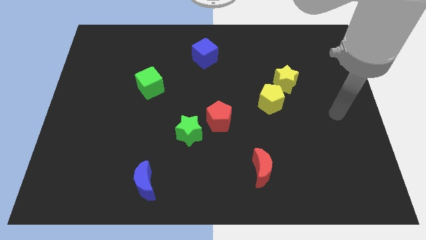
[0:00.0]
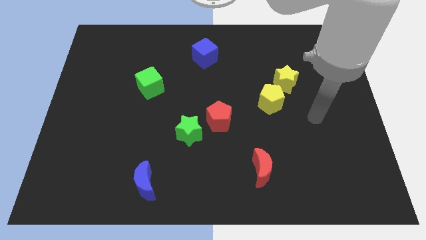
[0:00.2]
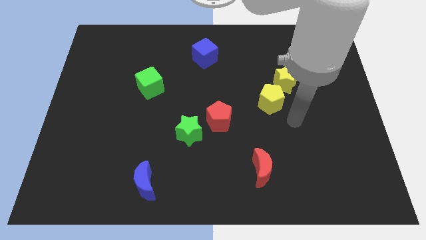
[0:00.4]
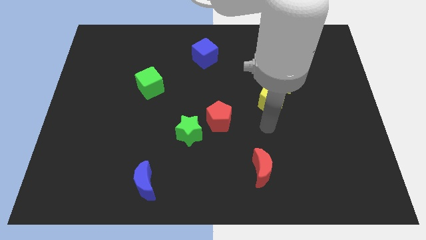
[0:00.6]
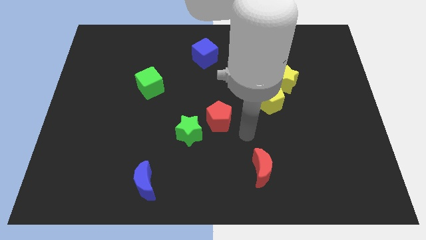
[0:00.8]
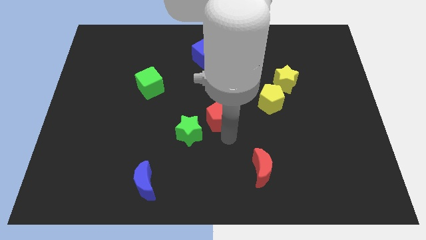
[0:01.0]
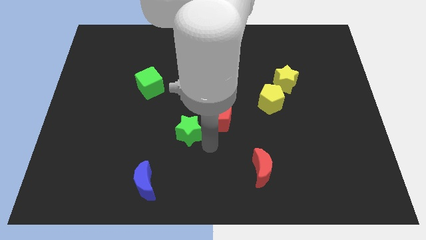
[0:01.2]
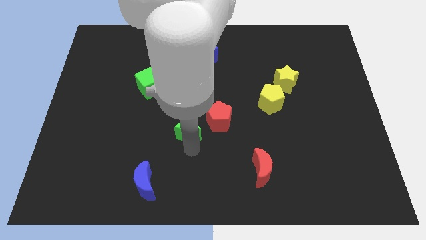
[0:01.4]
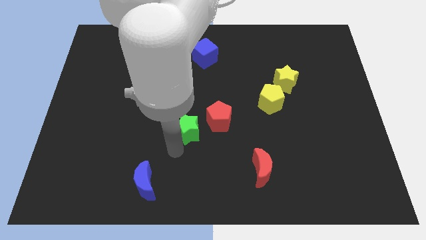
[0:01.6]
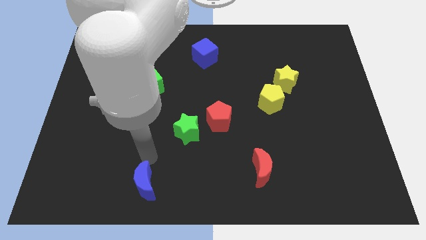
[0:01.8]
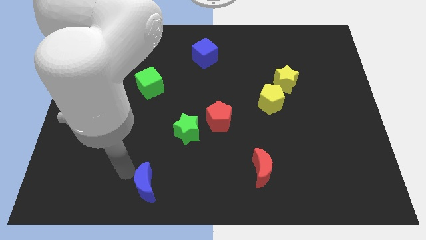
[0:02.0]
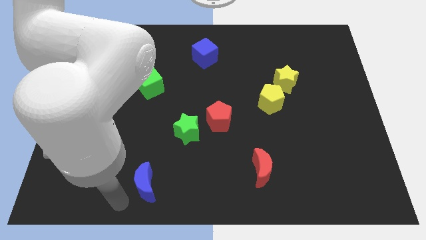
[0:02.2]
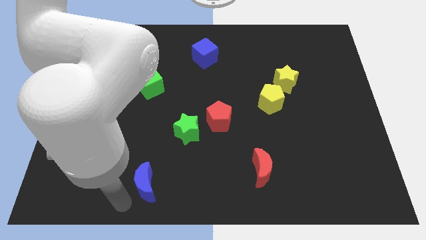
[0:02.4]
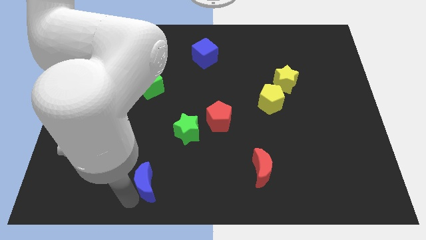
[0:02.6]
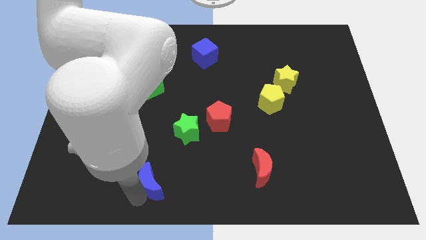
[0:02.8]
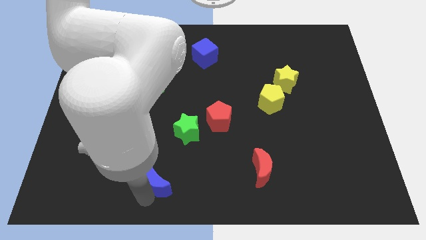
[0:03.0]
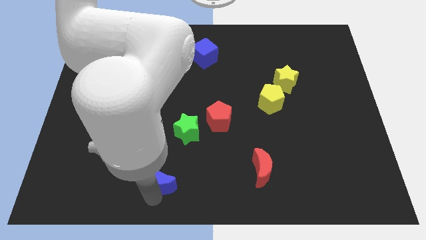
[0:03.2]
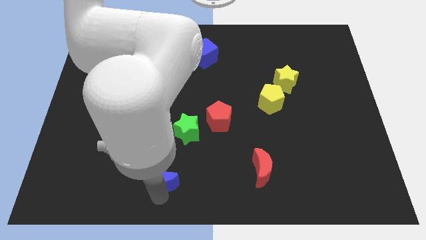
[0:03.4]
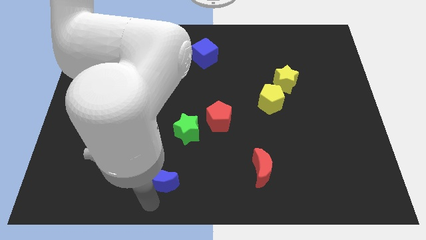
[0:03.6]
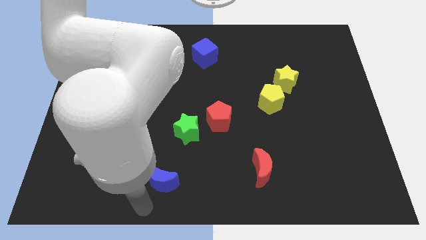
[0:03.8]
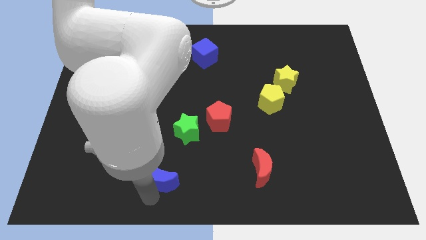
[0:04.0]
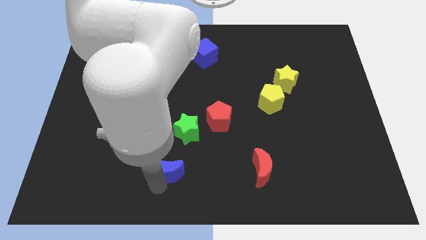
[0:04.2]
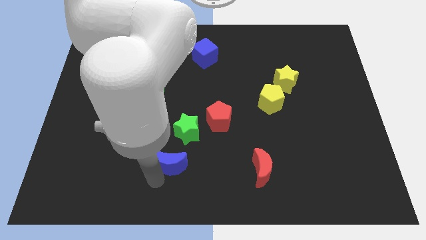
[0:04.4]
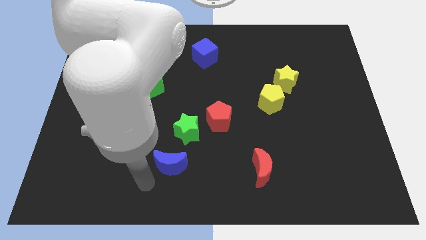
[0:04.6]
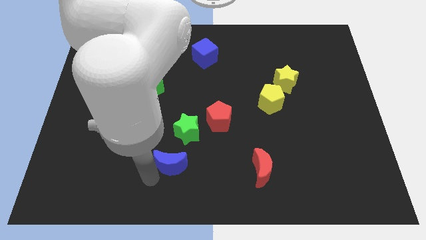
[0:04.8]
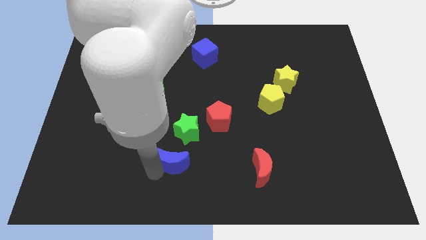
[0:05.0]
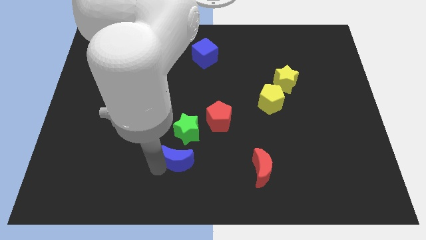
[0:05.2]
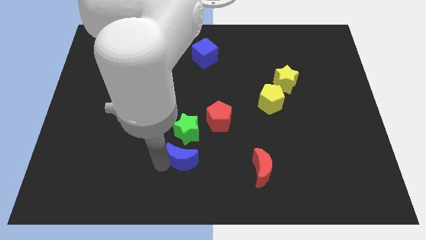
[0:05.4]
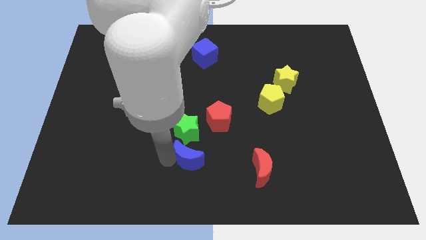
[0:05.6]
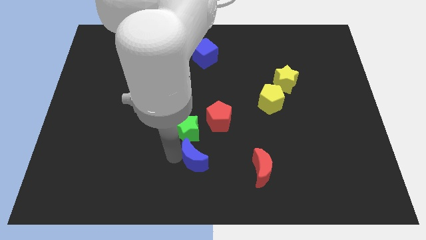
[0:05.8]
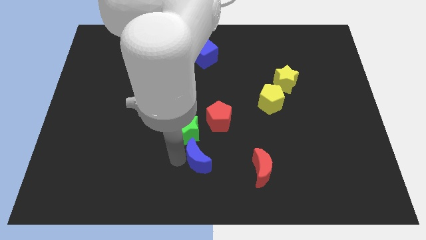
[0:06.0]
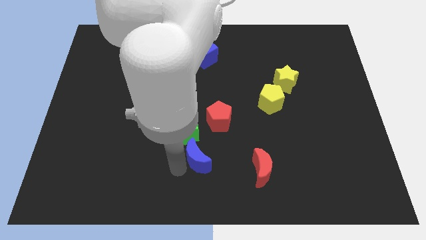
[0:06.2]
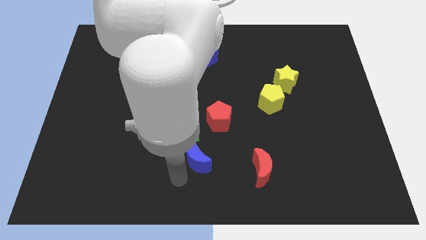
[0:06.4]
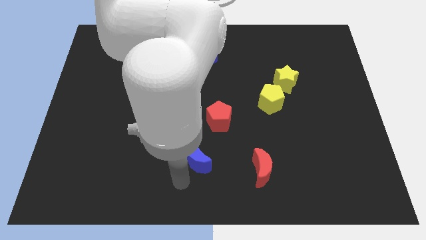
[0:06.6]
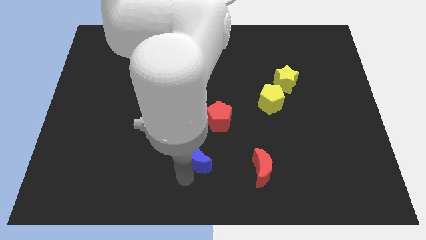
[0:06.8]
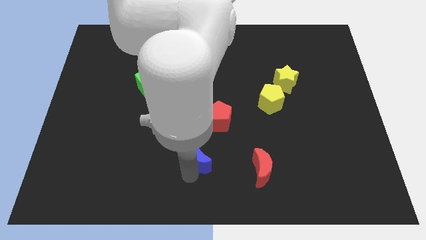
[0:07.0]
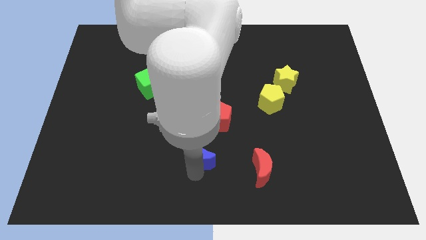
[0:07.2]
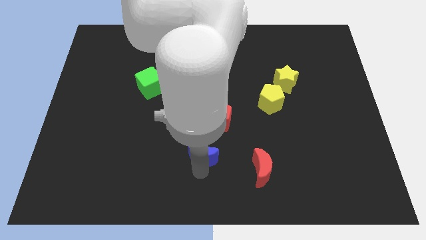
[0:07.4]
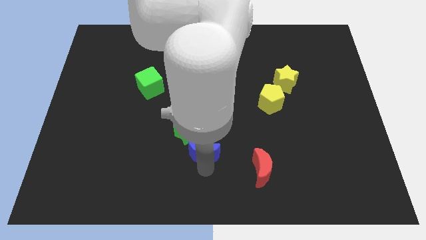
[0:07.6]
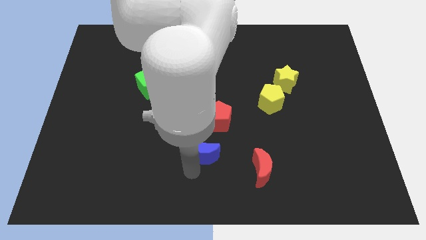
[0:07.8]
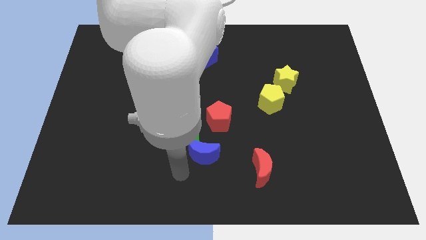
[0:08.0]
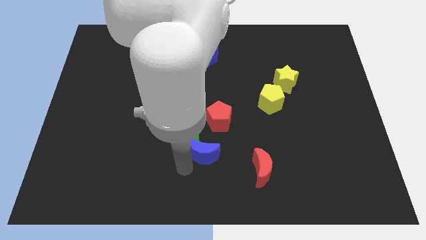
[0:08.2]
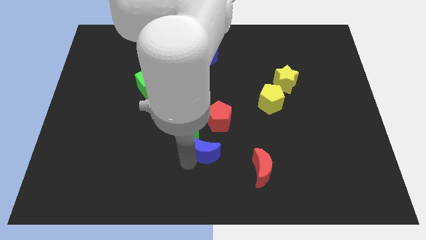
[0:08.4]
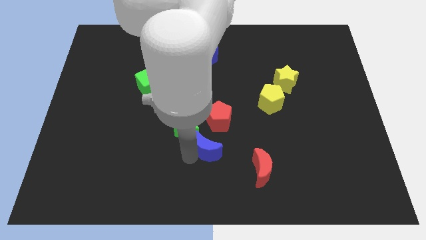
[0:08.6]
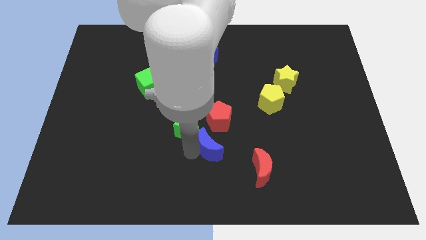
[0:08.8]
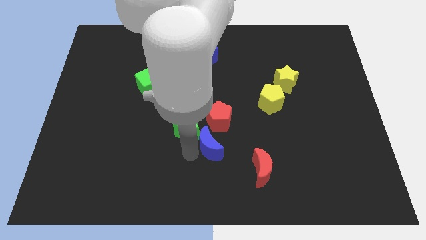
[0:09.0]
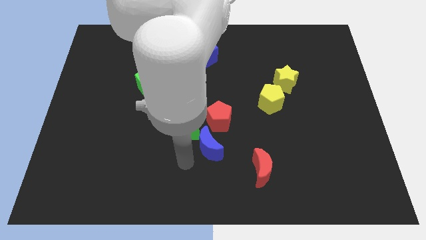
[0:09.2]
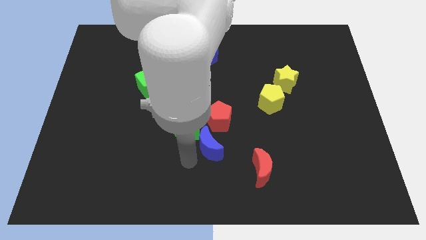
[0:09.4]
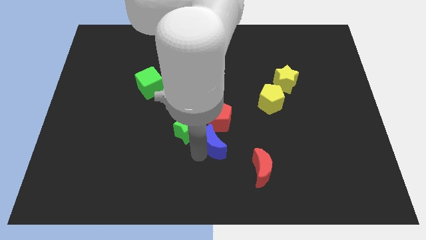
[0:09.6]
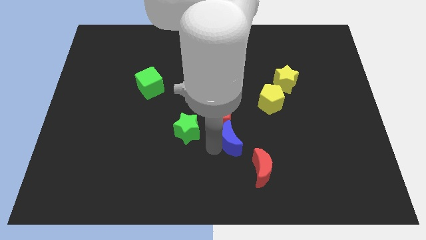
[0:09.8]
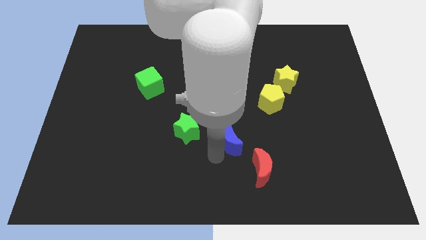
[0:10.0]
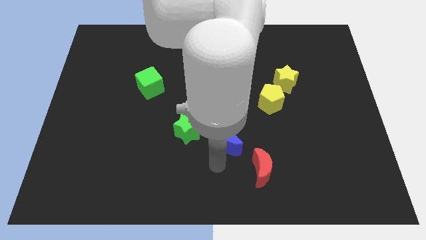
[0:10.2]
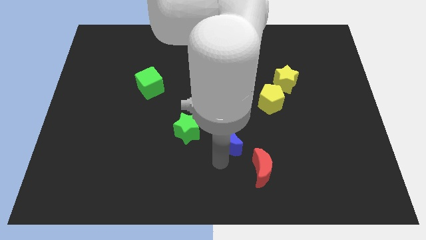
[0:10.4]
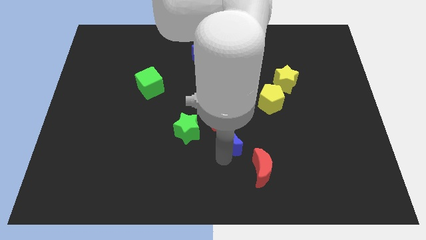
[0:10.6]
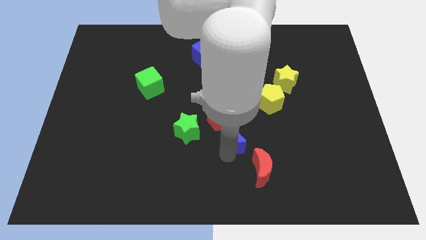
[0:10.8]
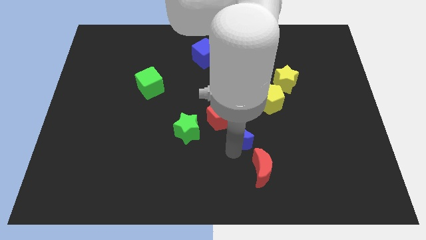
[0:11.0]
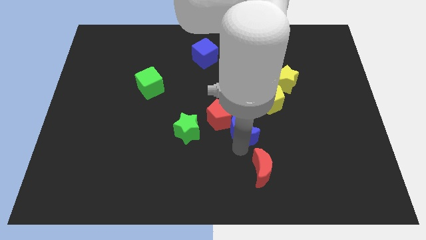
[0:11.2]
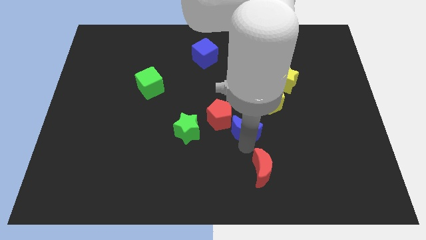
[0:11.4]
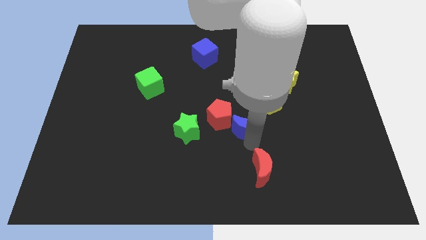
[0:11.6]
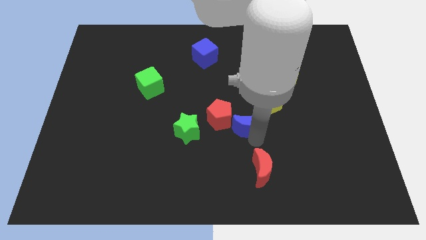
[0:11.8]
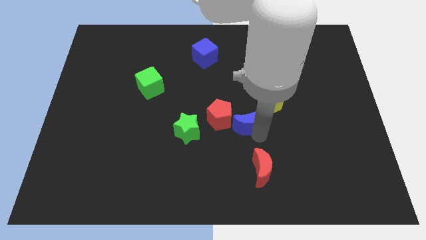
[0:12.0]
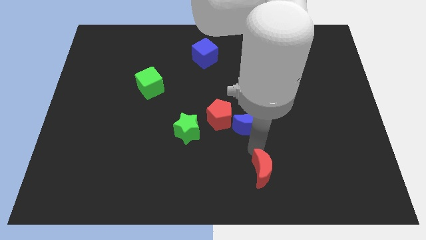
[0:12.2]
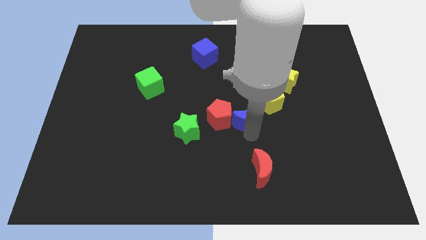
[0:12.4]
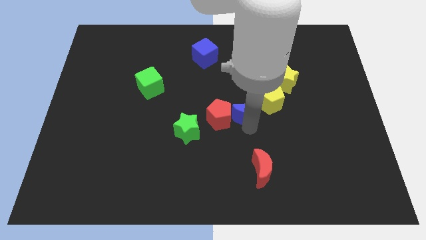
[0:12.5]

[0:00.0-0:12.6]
slide the blue moon diagonally up and to the right of the red pentagon

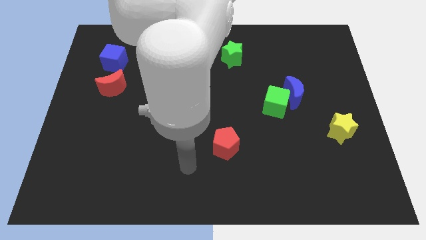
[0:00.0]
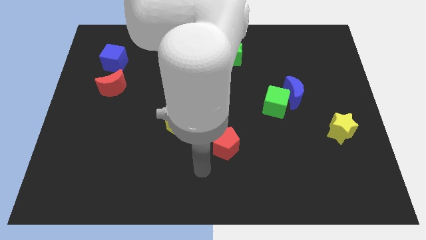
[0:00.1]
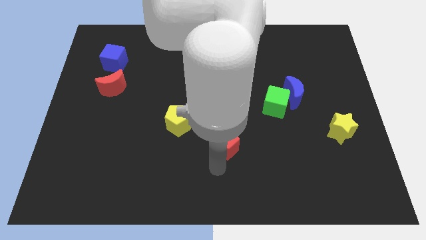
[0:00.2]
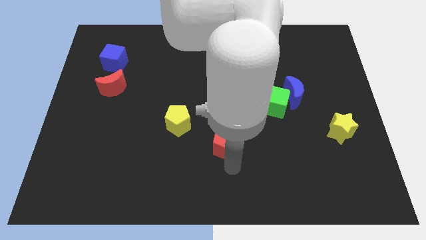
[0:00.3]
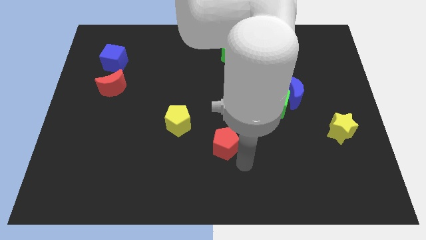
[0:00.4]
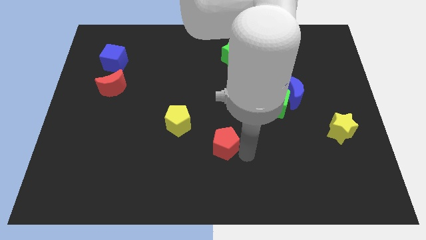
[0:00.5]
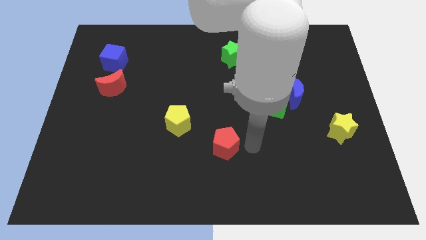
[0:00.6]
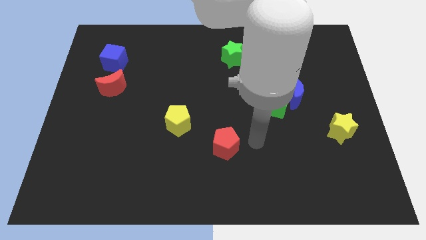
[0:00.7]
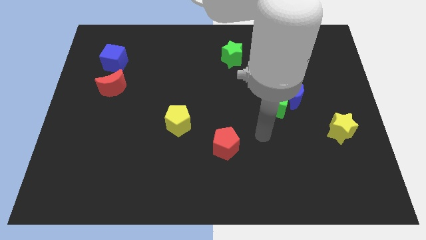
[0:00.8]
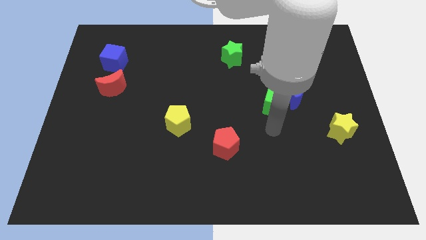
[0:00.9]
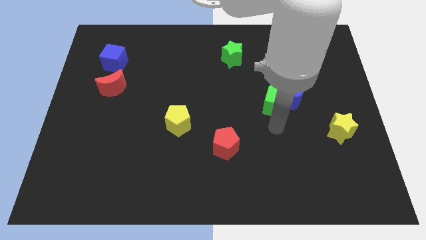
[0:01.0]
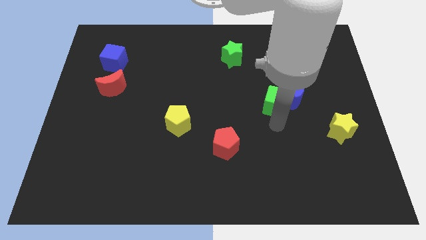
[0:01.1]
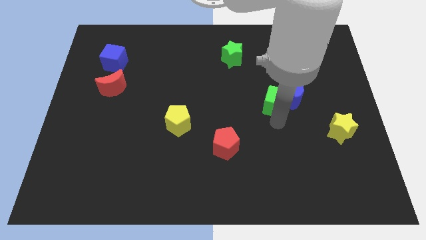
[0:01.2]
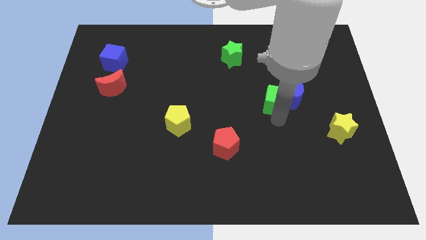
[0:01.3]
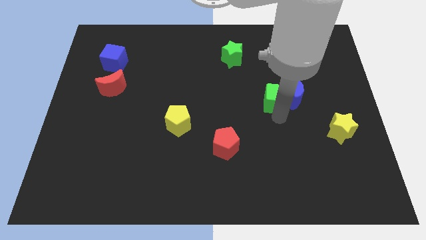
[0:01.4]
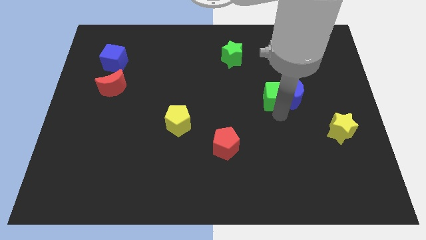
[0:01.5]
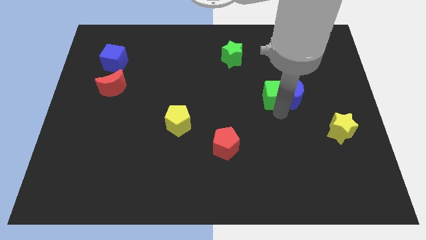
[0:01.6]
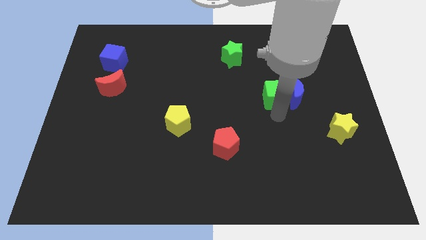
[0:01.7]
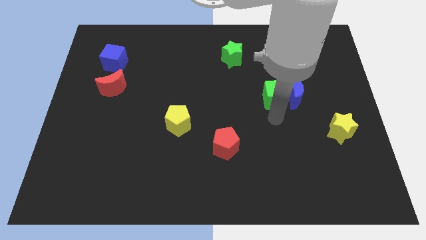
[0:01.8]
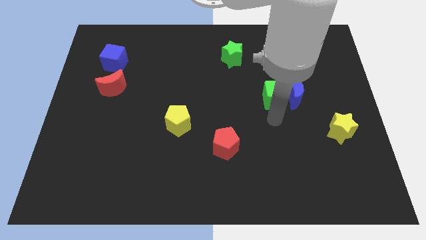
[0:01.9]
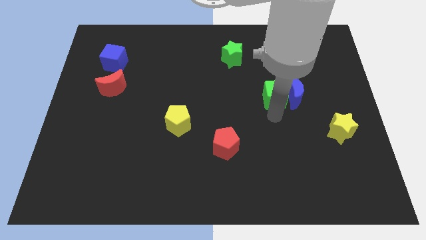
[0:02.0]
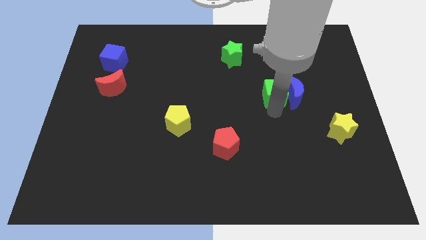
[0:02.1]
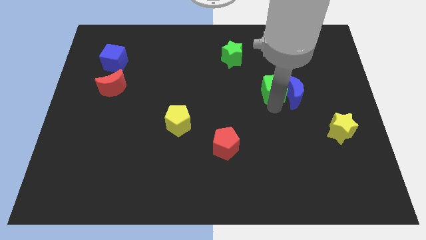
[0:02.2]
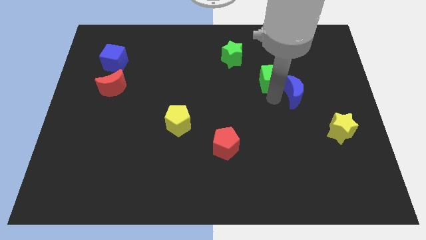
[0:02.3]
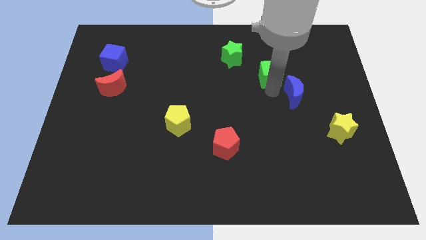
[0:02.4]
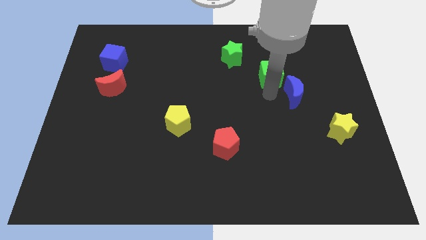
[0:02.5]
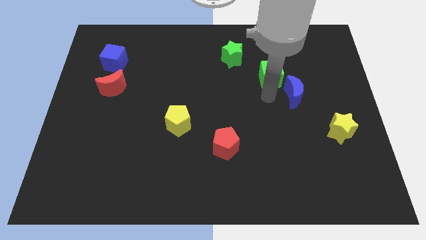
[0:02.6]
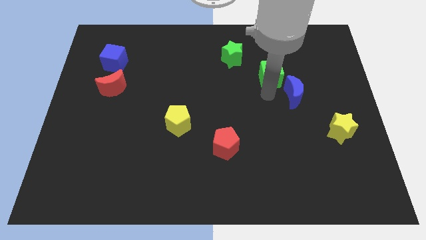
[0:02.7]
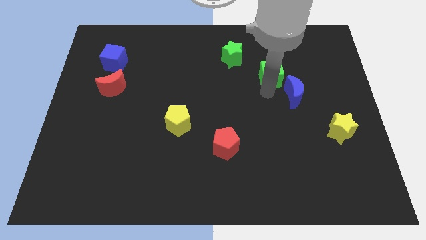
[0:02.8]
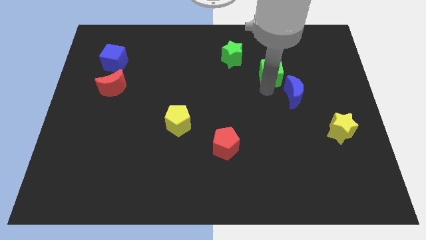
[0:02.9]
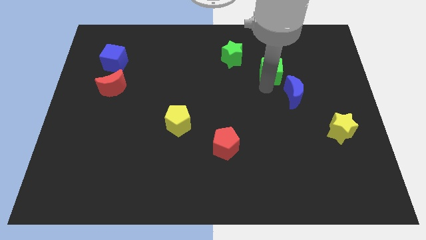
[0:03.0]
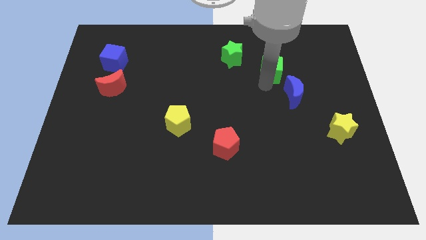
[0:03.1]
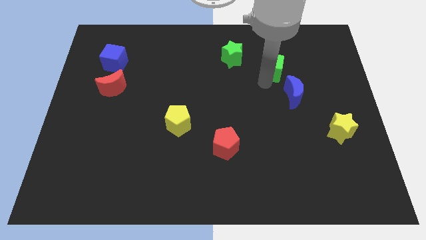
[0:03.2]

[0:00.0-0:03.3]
push the green cube to the right side of the green star
